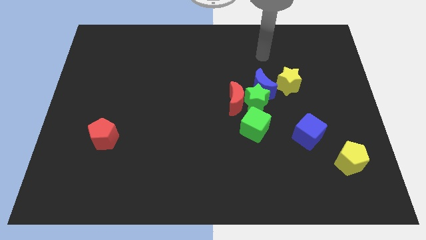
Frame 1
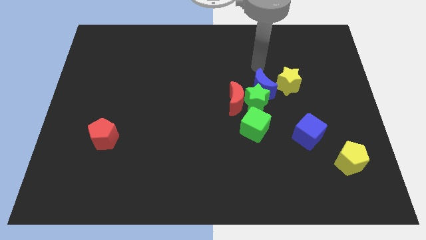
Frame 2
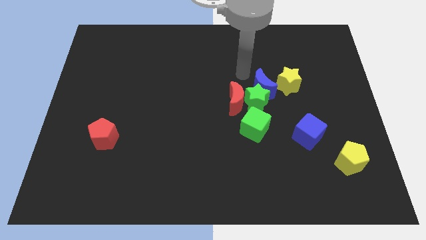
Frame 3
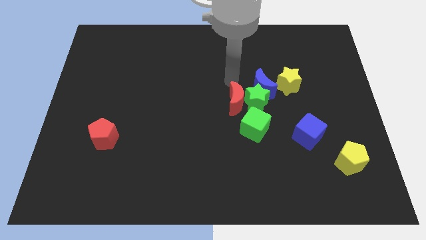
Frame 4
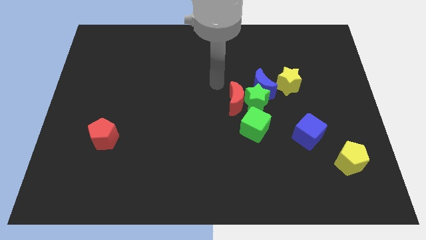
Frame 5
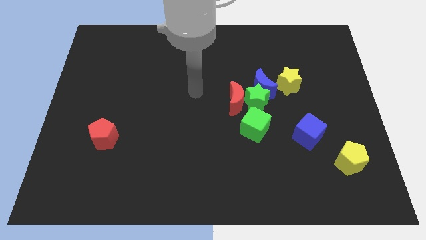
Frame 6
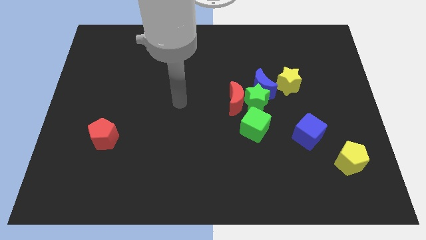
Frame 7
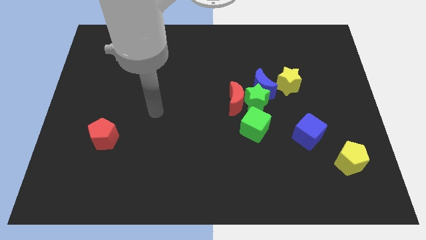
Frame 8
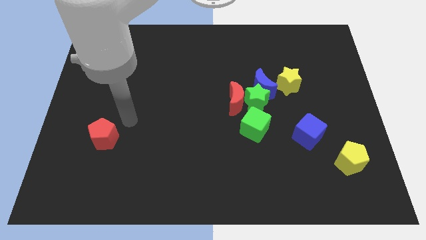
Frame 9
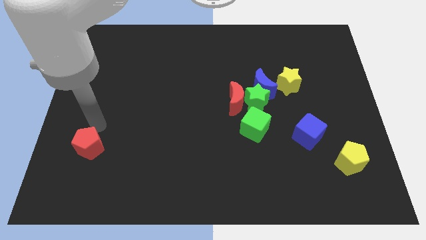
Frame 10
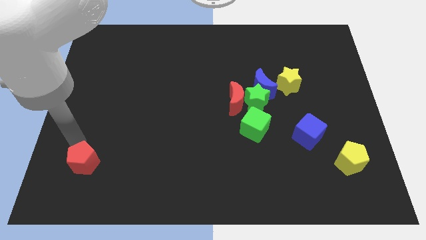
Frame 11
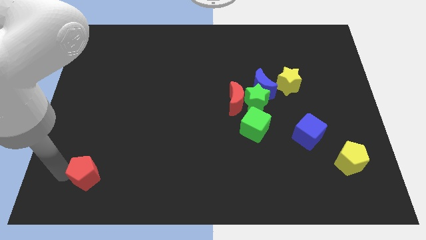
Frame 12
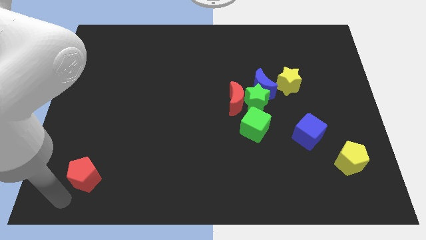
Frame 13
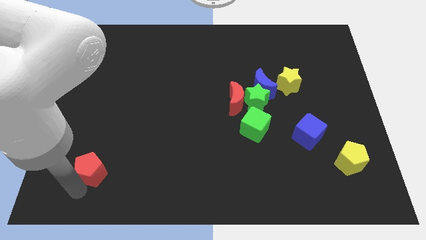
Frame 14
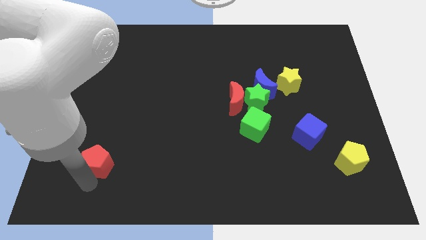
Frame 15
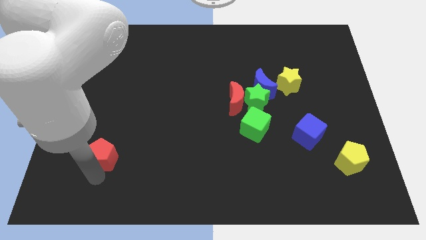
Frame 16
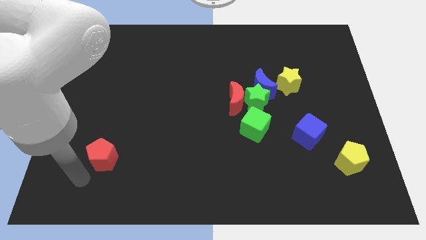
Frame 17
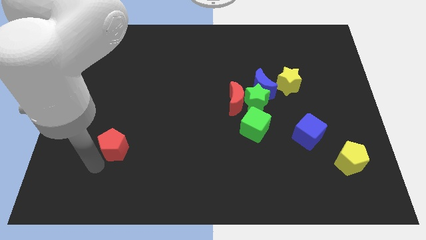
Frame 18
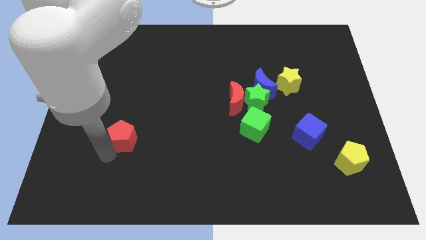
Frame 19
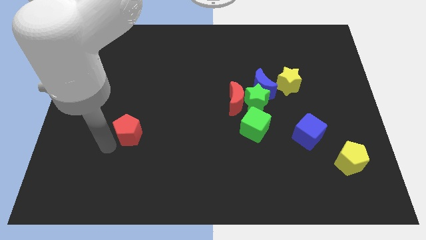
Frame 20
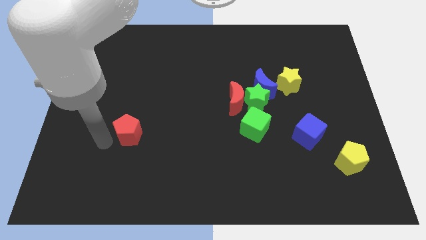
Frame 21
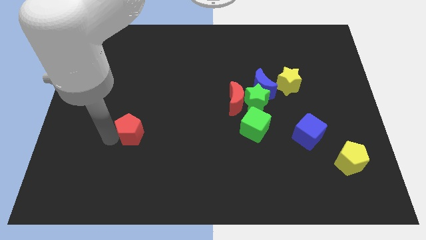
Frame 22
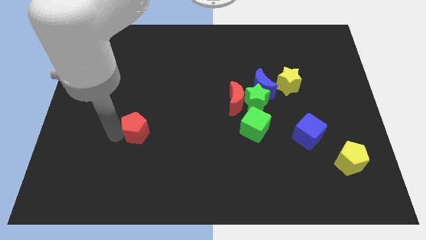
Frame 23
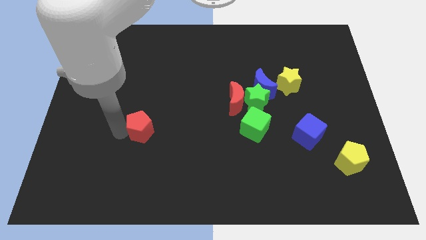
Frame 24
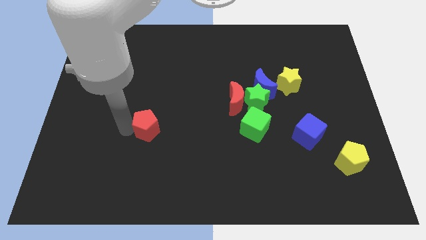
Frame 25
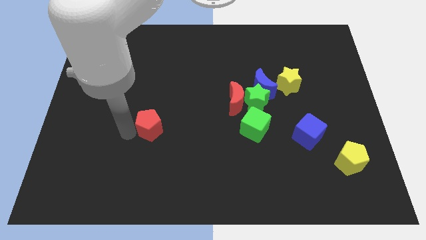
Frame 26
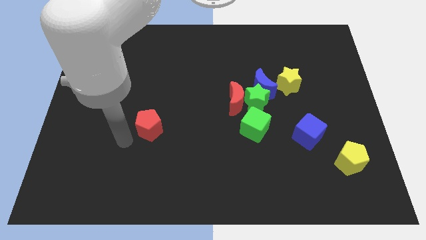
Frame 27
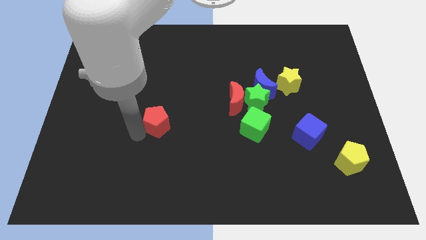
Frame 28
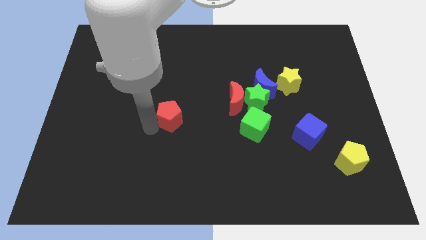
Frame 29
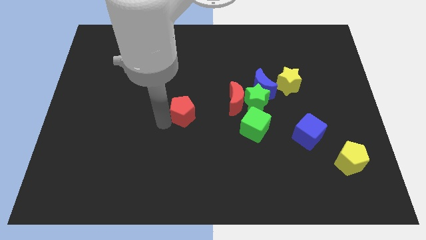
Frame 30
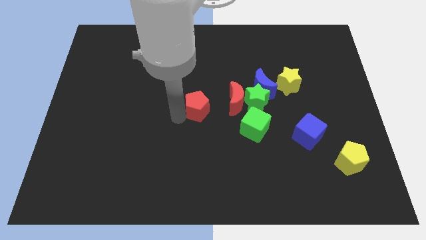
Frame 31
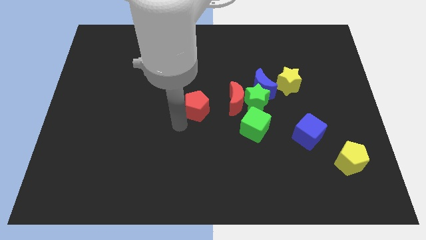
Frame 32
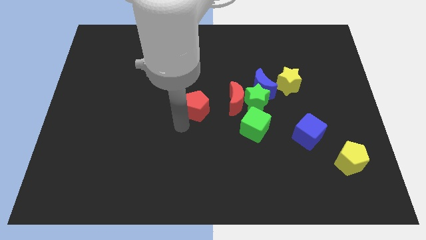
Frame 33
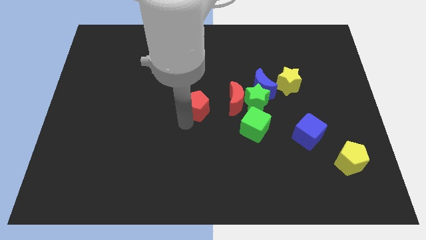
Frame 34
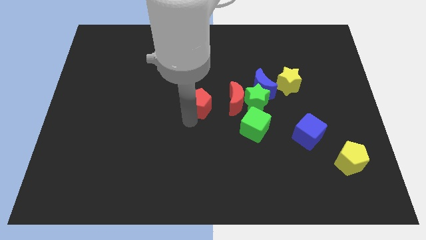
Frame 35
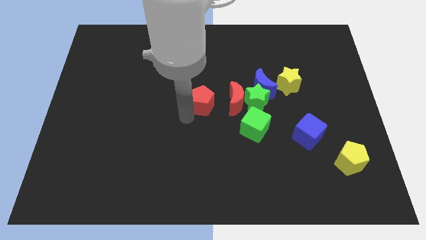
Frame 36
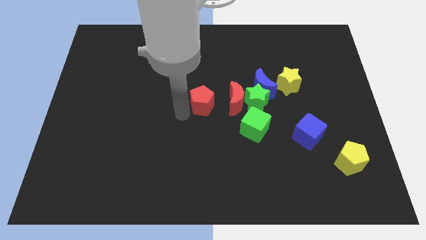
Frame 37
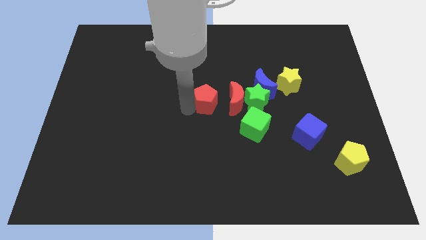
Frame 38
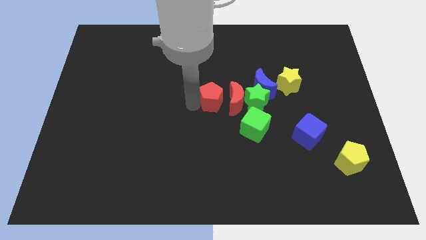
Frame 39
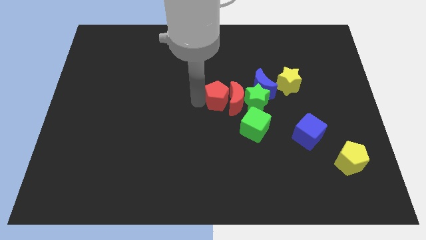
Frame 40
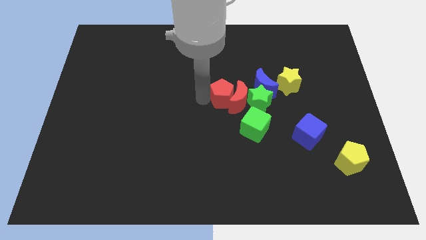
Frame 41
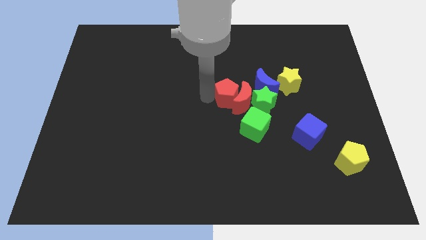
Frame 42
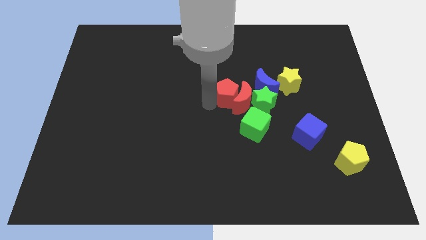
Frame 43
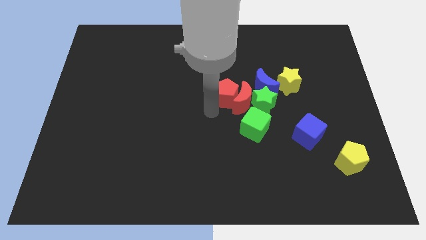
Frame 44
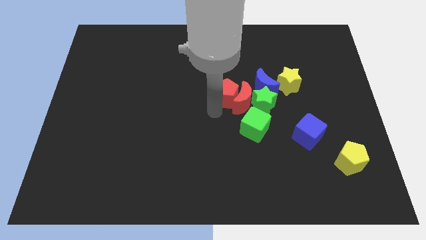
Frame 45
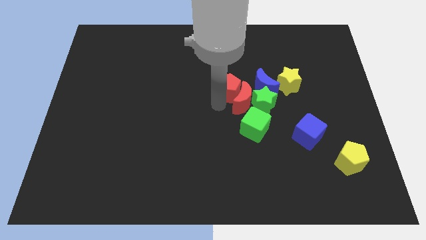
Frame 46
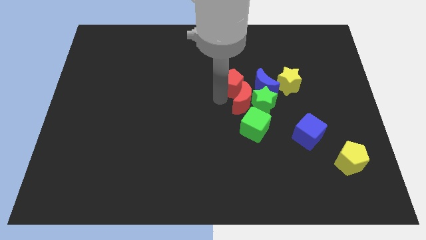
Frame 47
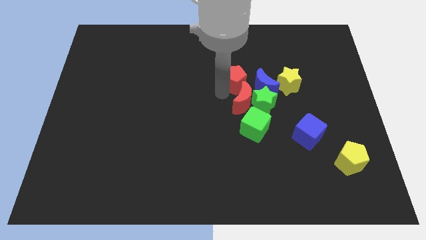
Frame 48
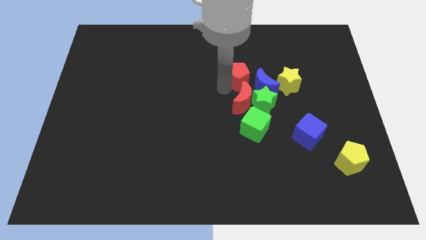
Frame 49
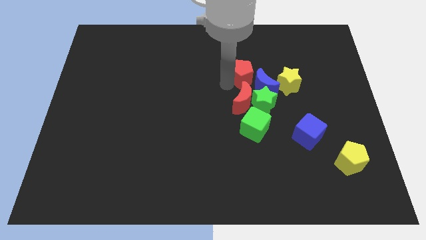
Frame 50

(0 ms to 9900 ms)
push the red pentagon close to the blue moon

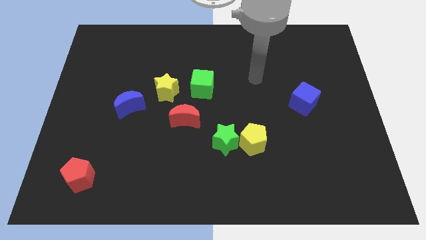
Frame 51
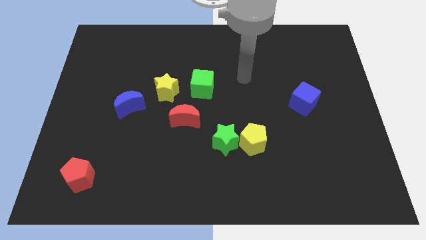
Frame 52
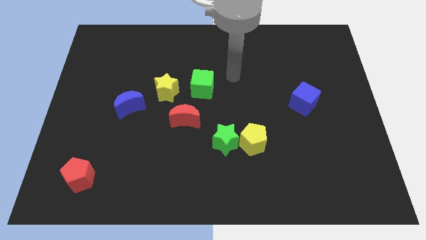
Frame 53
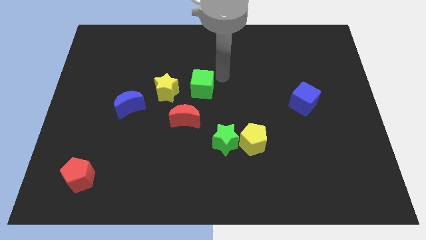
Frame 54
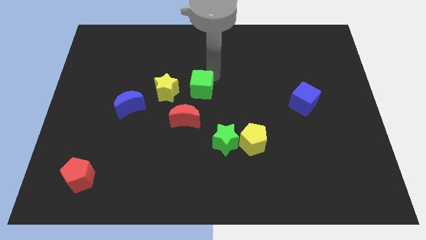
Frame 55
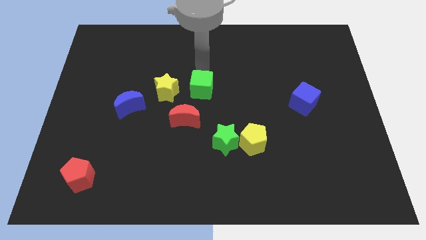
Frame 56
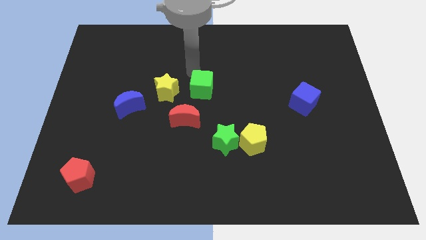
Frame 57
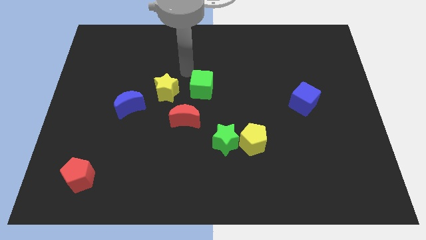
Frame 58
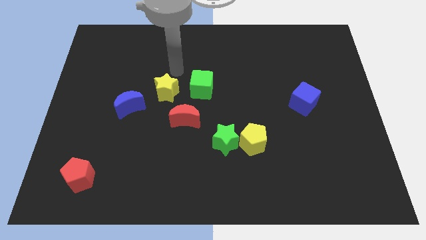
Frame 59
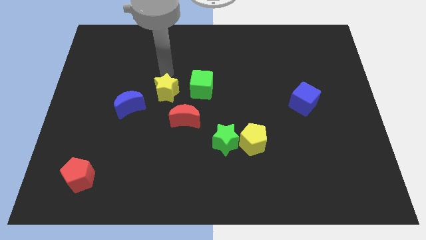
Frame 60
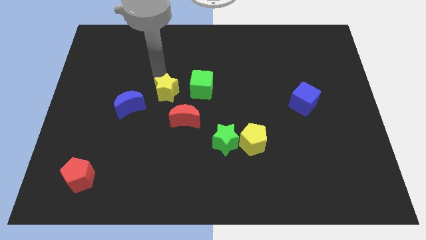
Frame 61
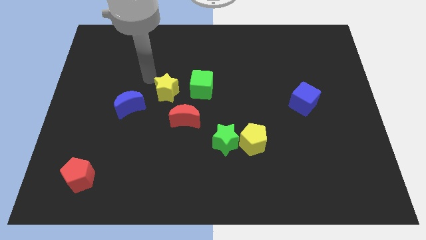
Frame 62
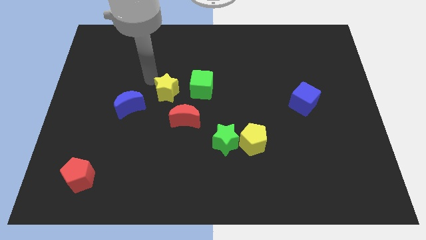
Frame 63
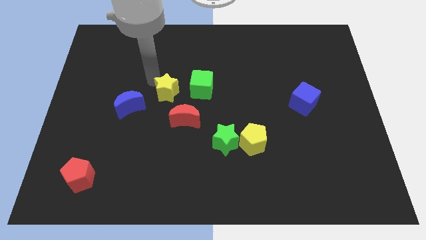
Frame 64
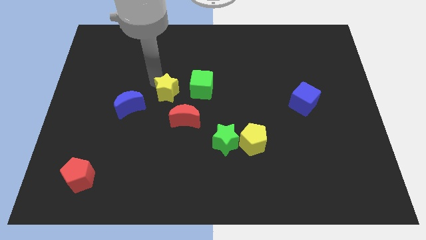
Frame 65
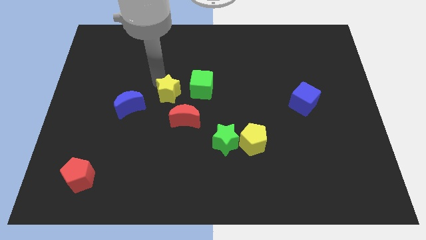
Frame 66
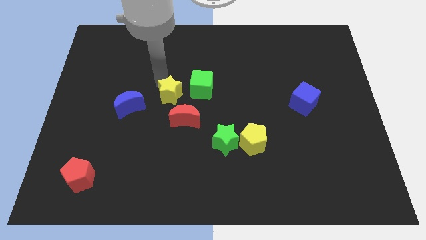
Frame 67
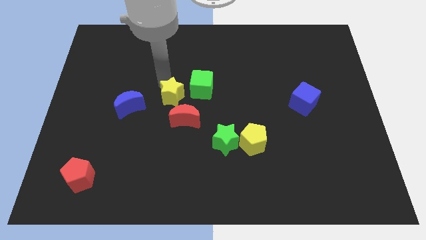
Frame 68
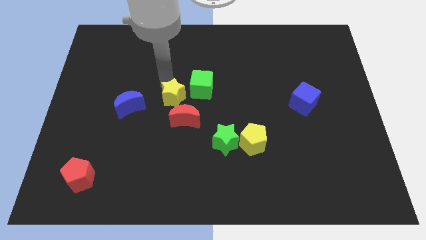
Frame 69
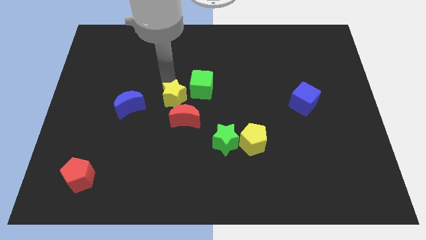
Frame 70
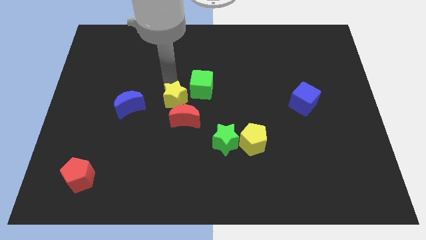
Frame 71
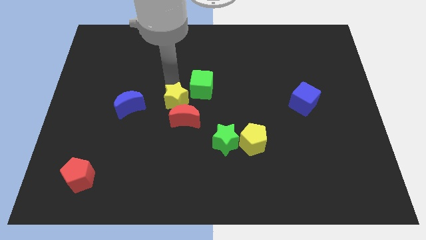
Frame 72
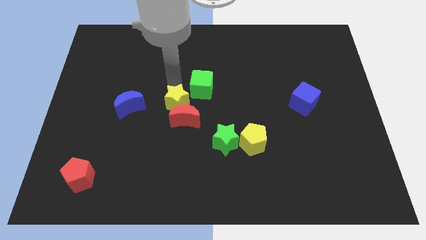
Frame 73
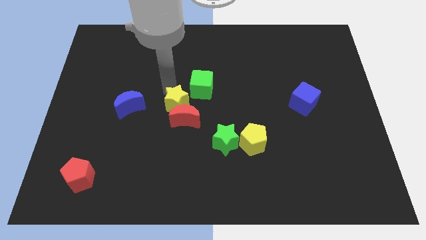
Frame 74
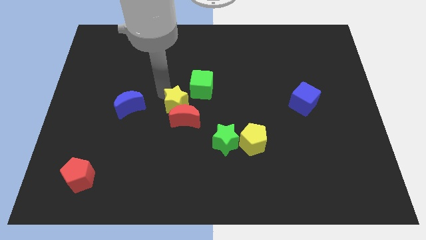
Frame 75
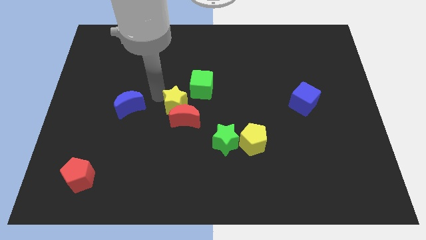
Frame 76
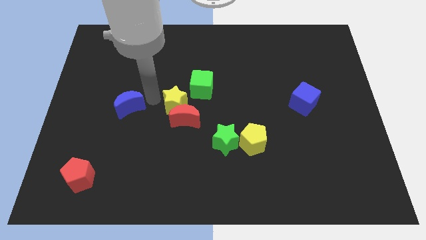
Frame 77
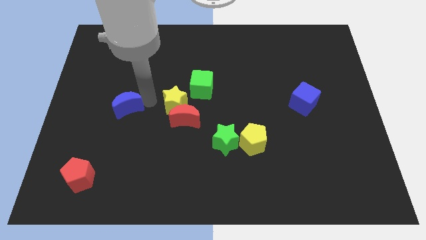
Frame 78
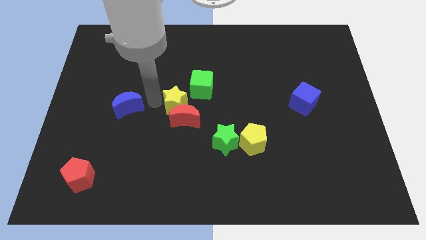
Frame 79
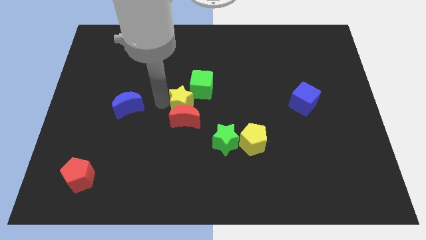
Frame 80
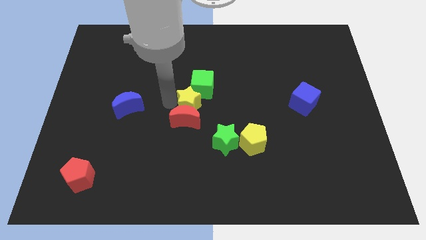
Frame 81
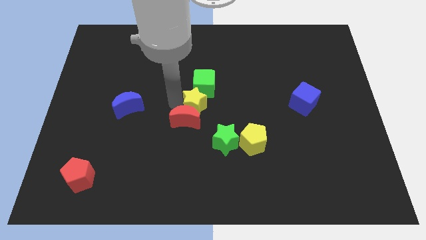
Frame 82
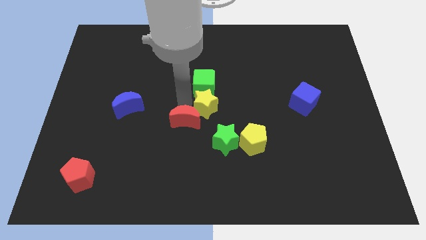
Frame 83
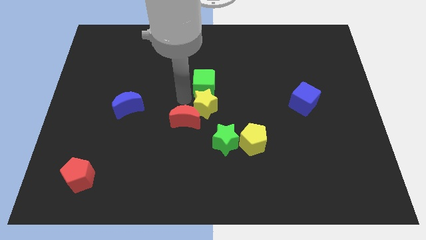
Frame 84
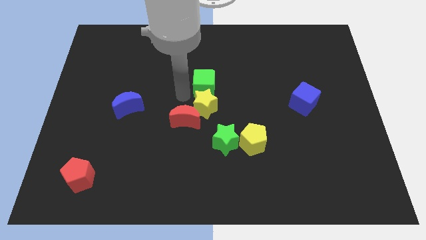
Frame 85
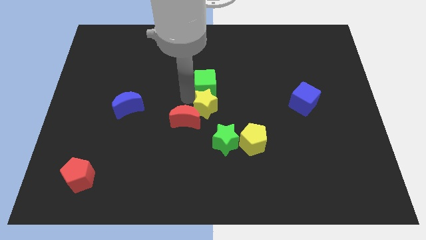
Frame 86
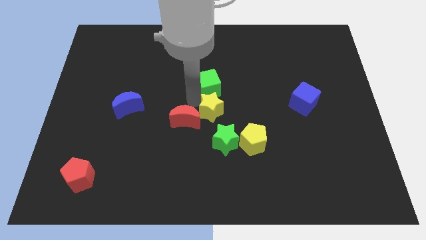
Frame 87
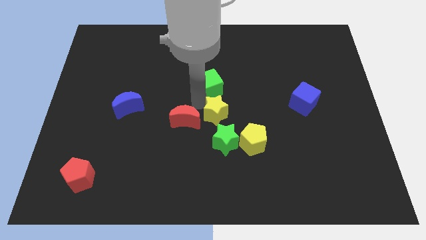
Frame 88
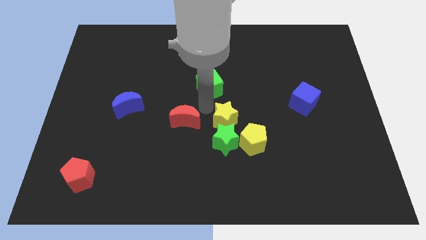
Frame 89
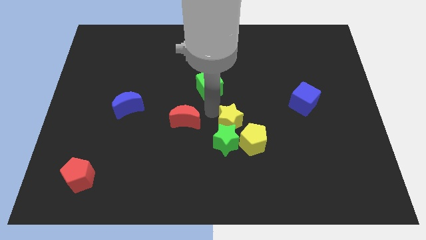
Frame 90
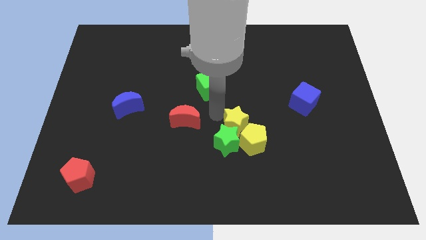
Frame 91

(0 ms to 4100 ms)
push the yellow star close to the yellow pentagon
